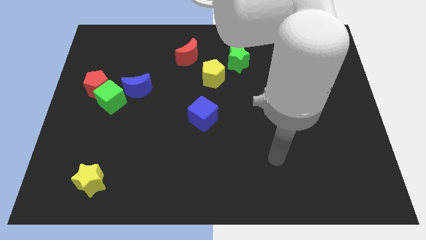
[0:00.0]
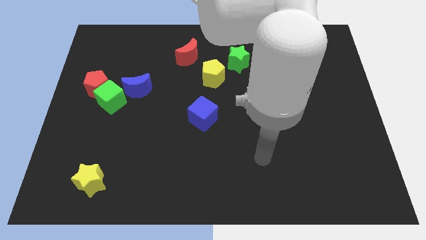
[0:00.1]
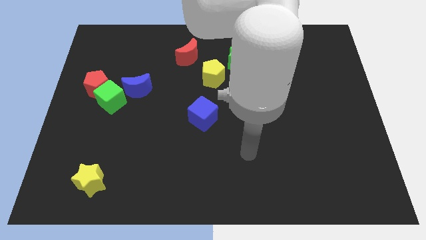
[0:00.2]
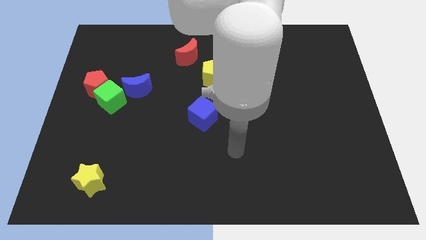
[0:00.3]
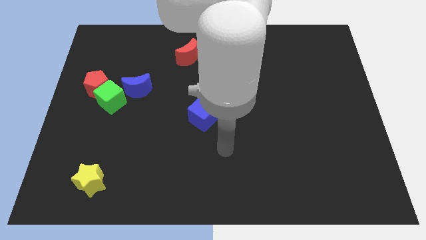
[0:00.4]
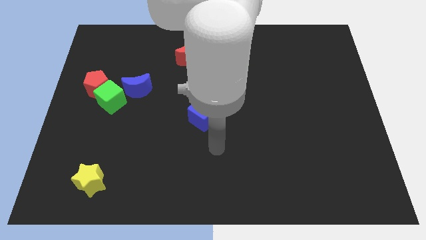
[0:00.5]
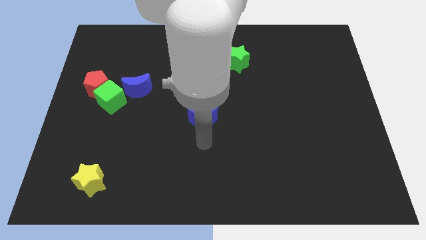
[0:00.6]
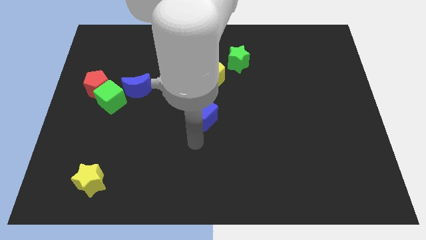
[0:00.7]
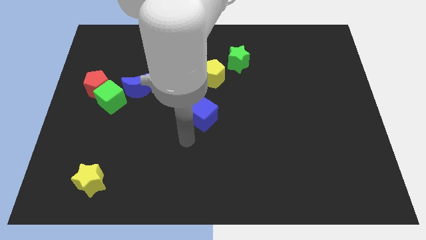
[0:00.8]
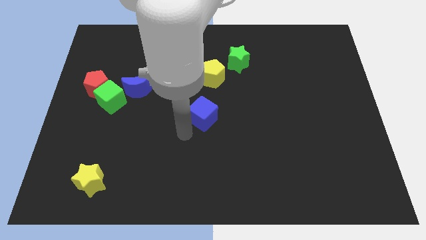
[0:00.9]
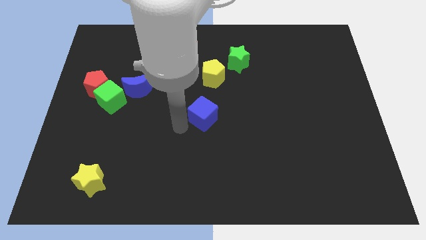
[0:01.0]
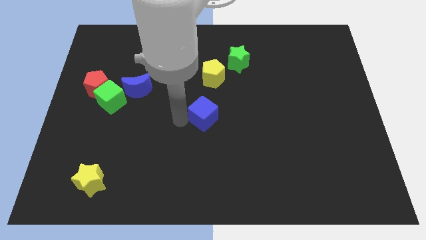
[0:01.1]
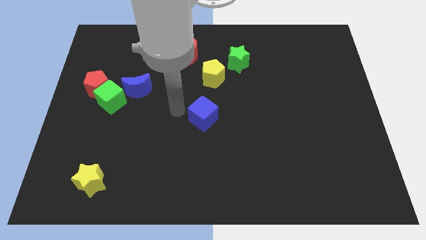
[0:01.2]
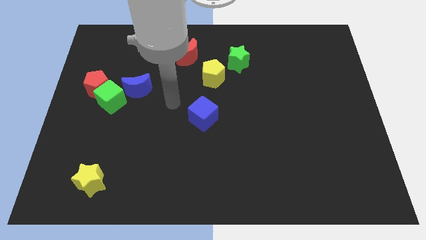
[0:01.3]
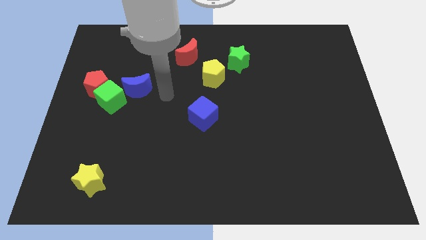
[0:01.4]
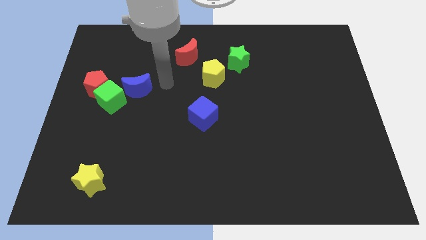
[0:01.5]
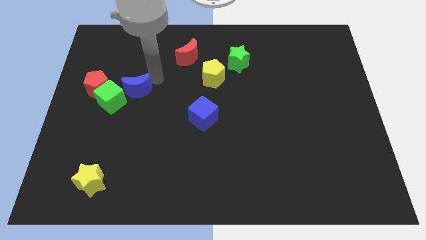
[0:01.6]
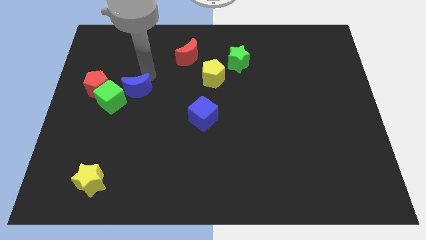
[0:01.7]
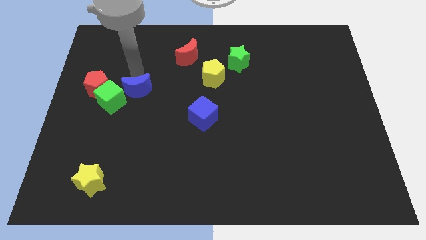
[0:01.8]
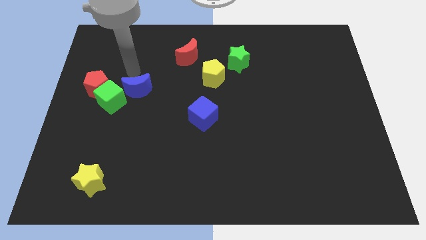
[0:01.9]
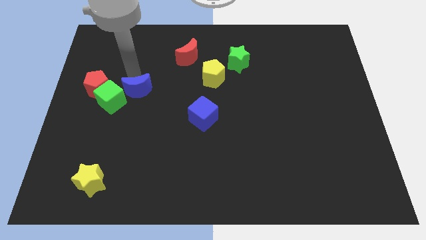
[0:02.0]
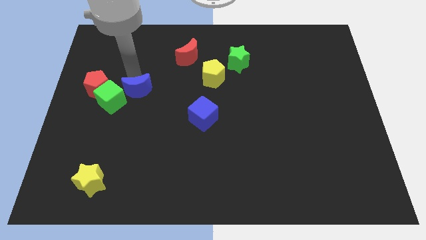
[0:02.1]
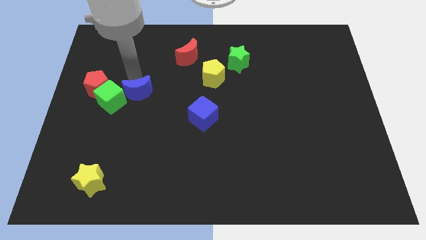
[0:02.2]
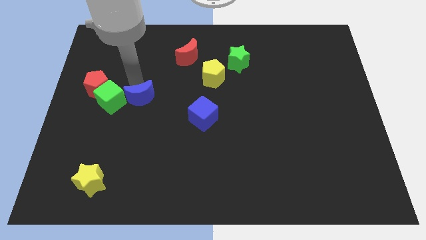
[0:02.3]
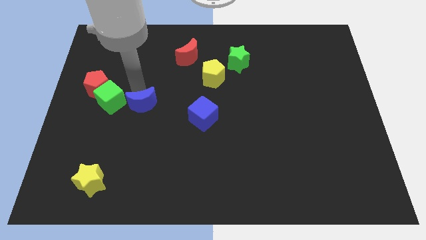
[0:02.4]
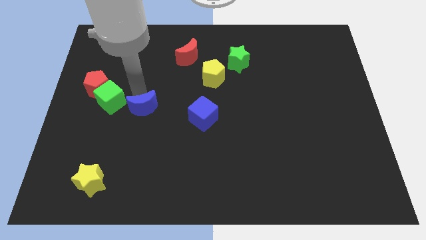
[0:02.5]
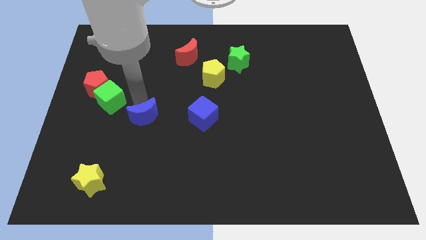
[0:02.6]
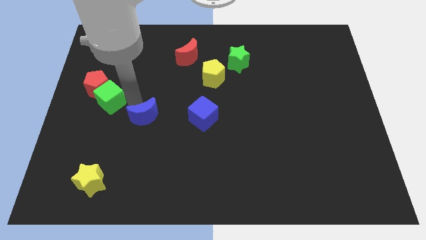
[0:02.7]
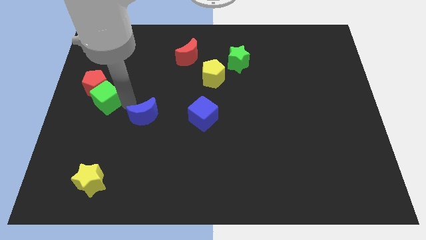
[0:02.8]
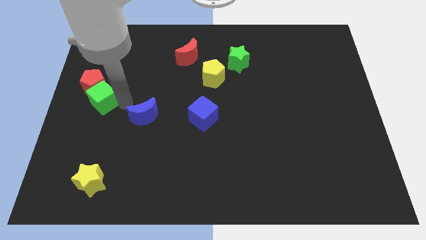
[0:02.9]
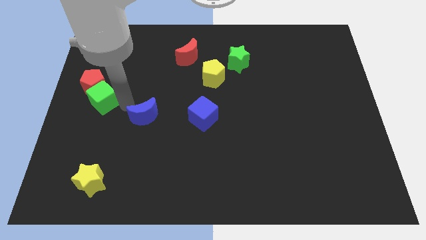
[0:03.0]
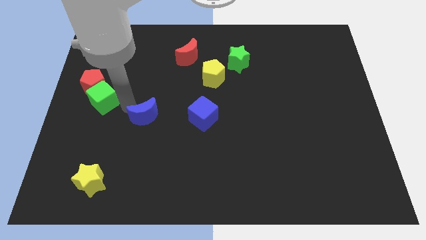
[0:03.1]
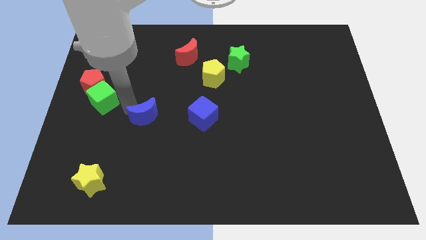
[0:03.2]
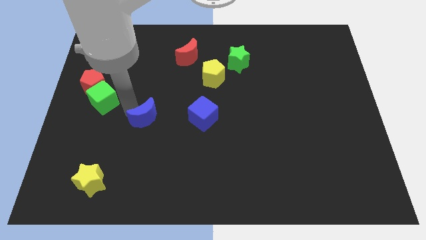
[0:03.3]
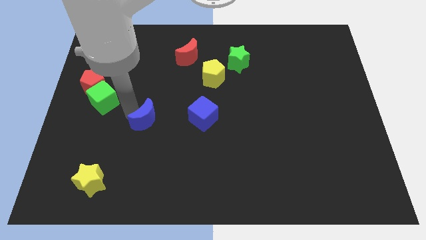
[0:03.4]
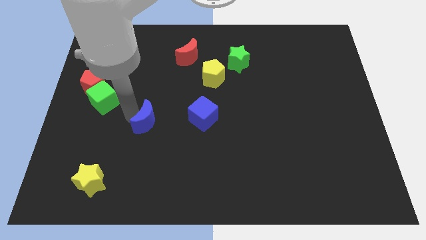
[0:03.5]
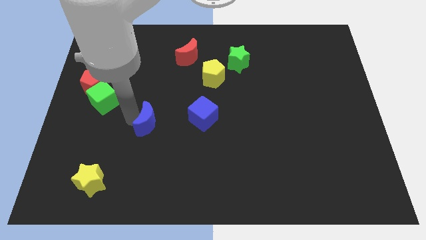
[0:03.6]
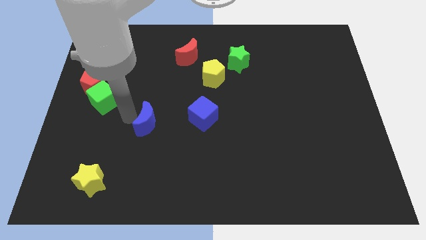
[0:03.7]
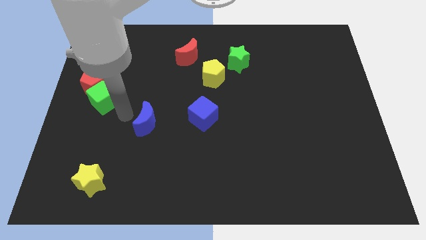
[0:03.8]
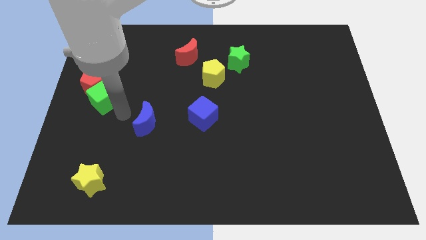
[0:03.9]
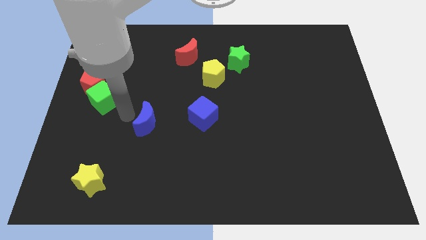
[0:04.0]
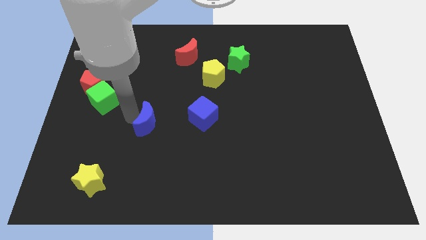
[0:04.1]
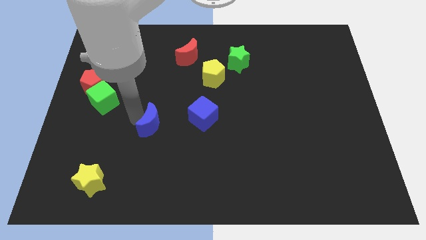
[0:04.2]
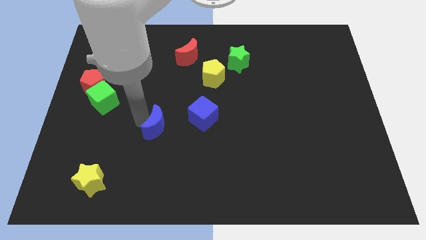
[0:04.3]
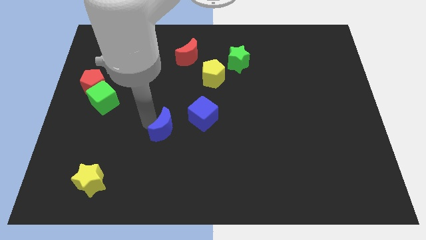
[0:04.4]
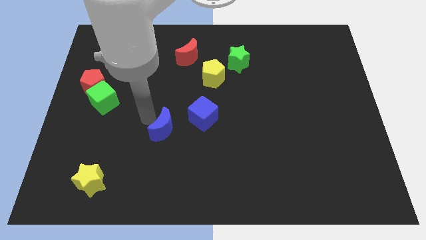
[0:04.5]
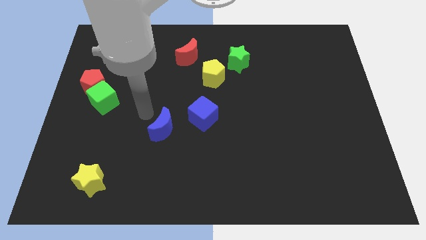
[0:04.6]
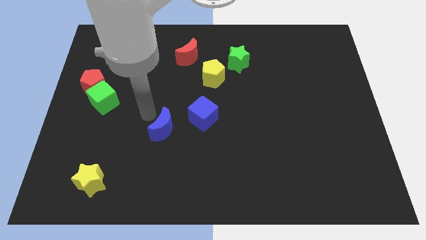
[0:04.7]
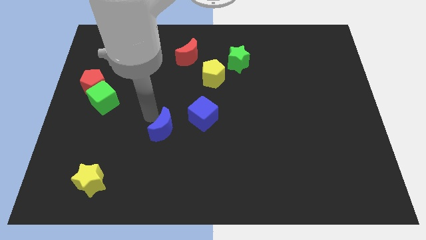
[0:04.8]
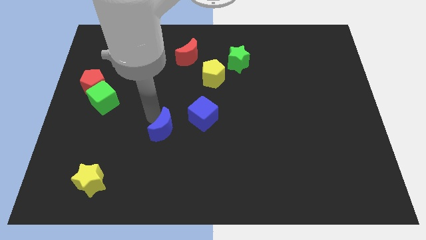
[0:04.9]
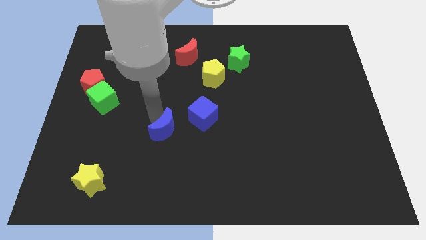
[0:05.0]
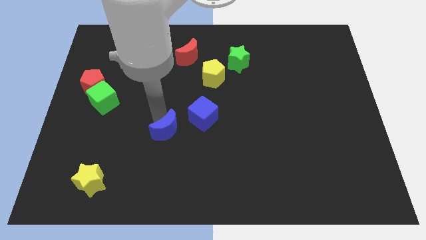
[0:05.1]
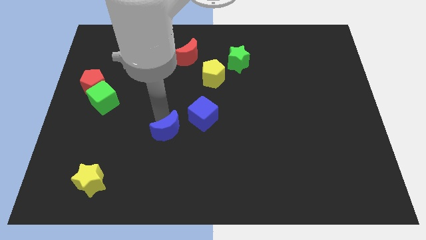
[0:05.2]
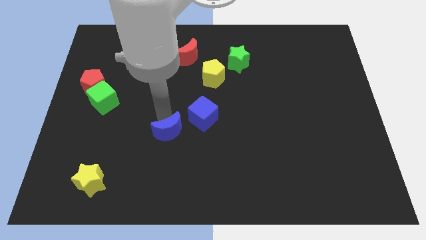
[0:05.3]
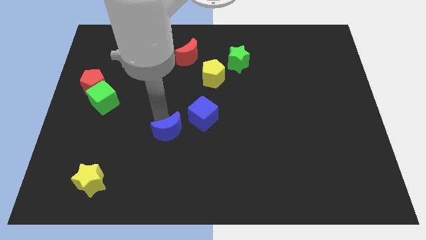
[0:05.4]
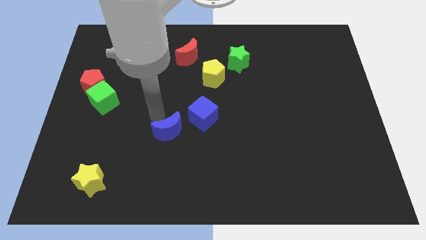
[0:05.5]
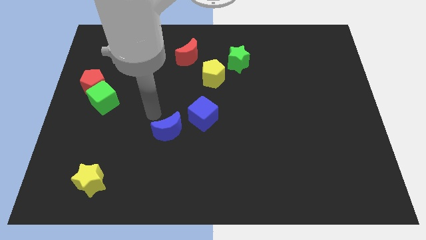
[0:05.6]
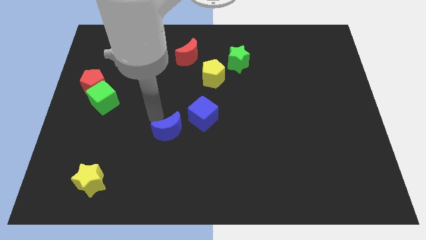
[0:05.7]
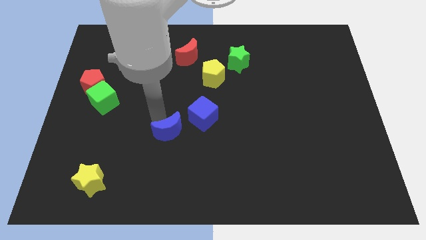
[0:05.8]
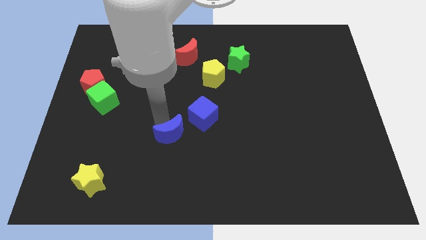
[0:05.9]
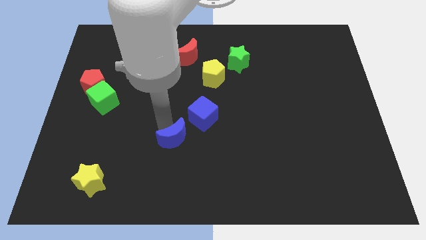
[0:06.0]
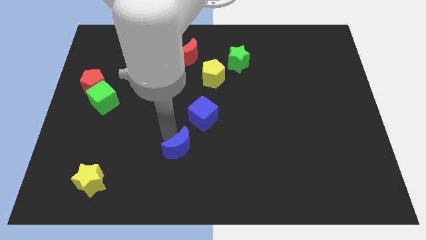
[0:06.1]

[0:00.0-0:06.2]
put the blue moon to the bottom of the blue cube

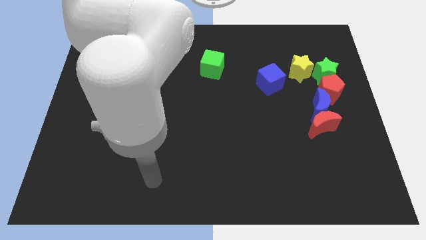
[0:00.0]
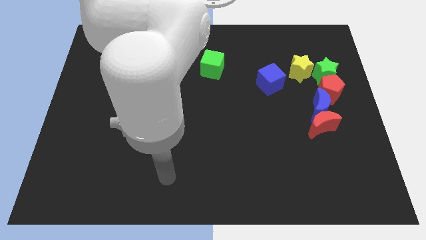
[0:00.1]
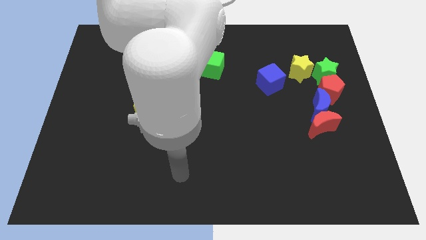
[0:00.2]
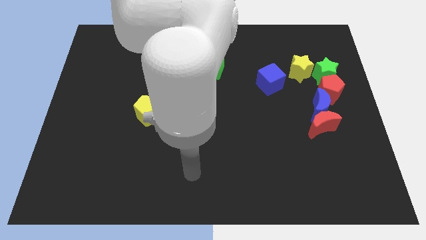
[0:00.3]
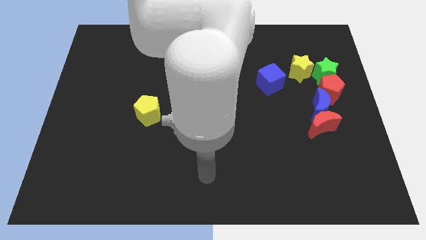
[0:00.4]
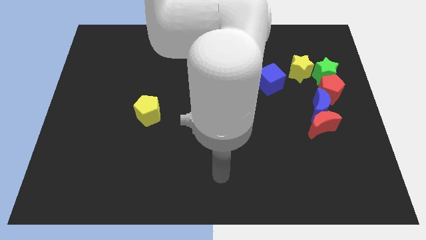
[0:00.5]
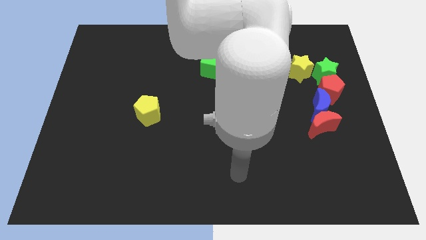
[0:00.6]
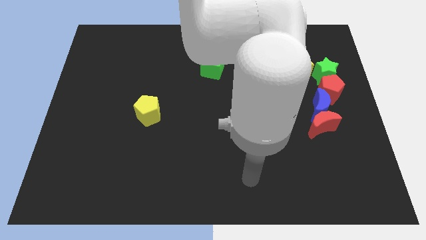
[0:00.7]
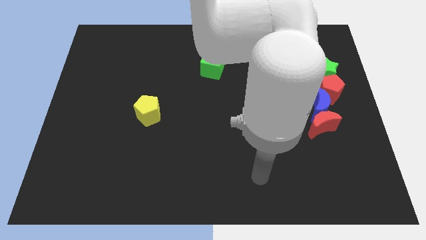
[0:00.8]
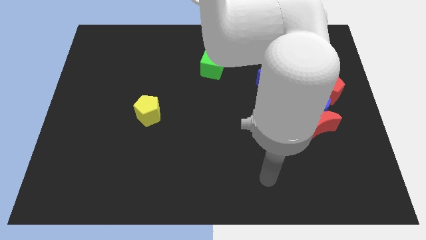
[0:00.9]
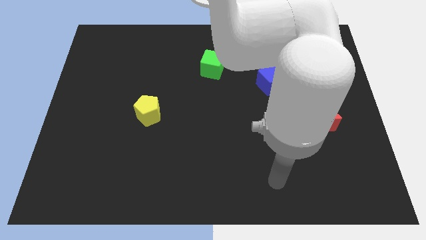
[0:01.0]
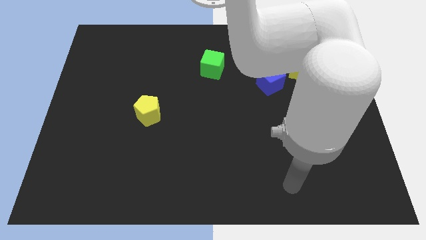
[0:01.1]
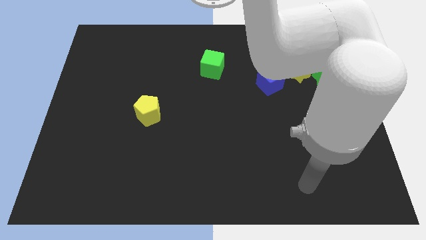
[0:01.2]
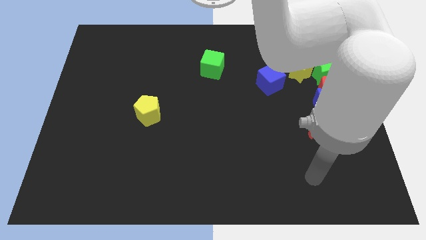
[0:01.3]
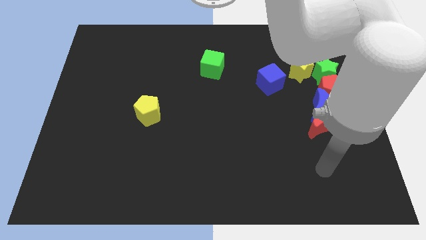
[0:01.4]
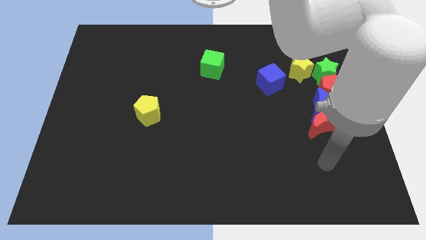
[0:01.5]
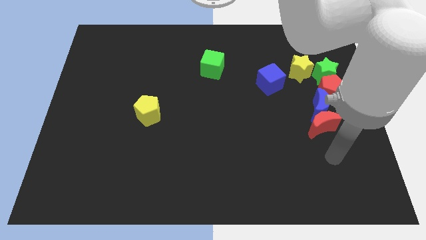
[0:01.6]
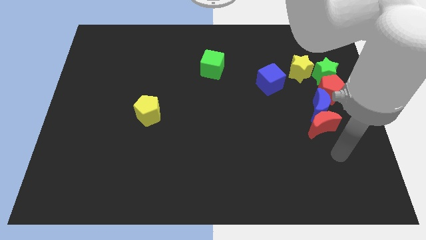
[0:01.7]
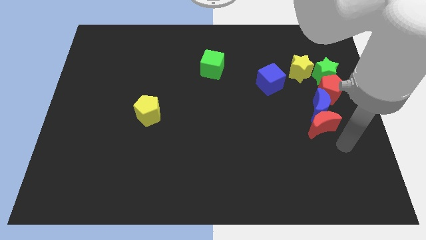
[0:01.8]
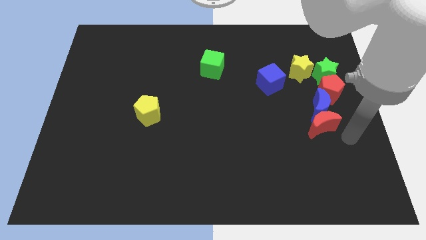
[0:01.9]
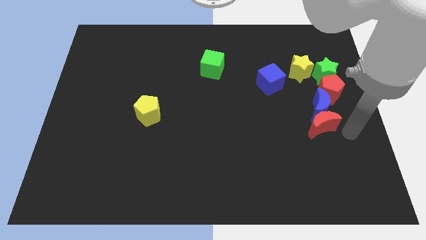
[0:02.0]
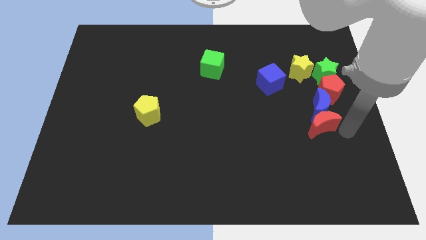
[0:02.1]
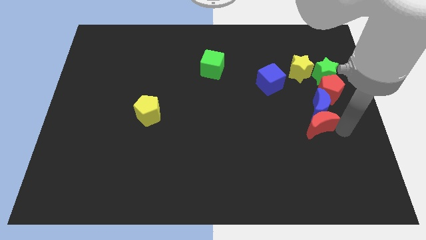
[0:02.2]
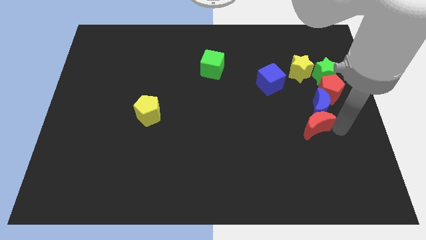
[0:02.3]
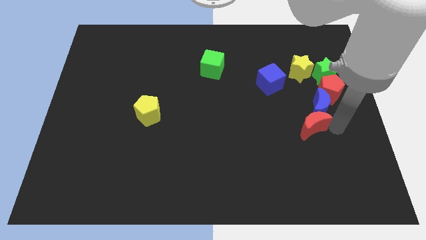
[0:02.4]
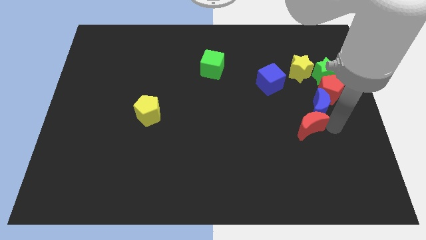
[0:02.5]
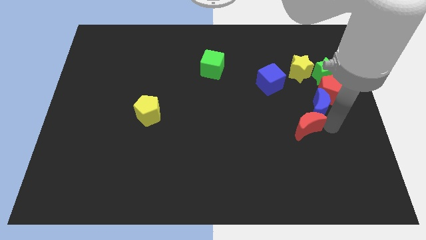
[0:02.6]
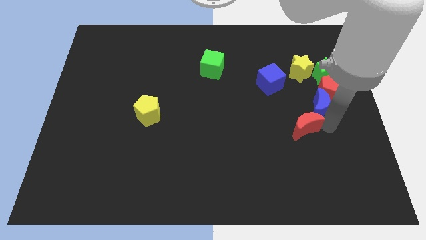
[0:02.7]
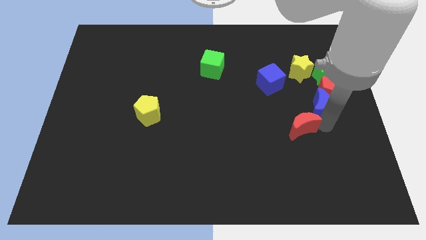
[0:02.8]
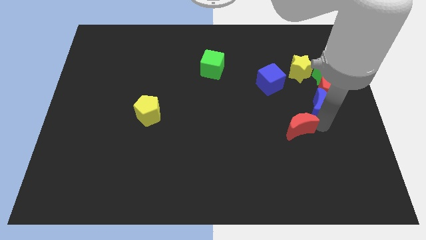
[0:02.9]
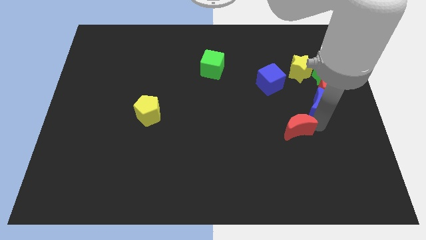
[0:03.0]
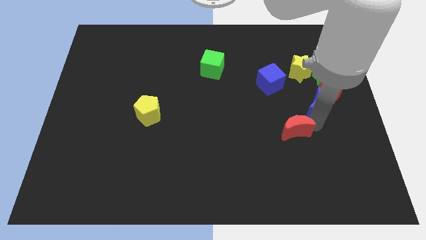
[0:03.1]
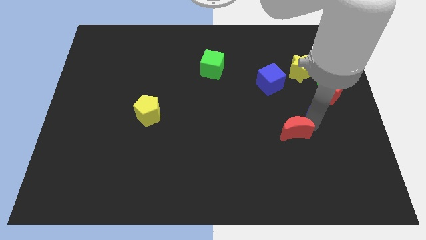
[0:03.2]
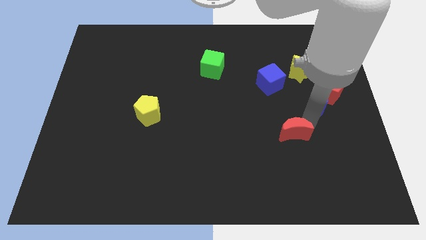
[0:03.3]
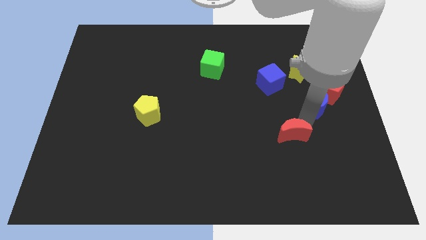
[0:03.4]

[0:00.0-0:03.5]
move the red moon below the blue cube
